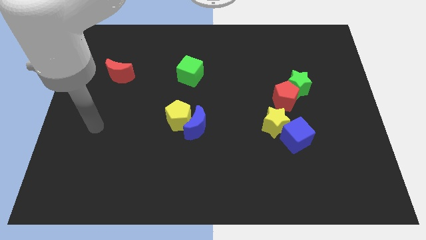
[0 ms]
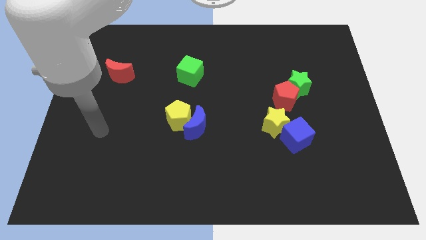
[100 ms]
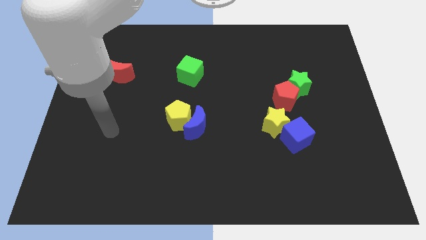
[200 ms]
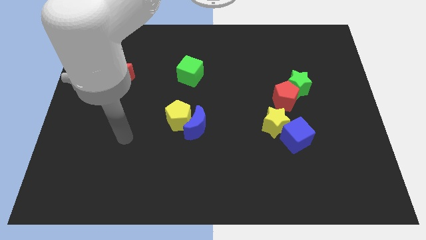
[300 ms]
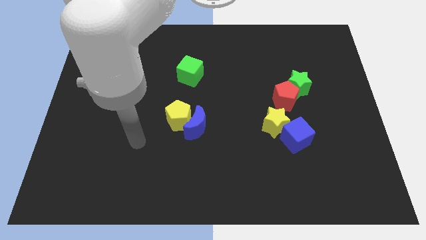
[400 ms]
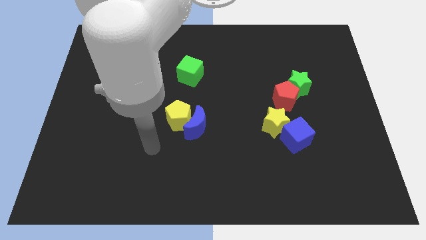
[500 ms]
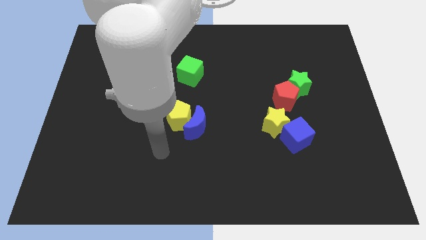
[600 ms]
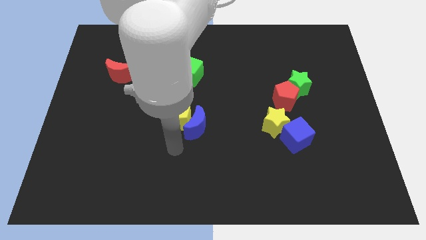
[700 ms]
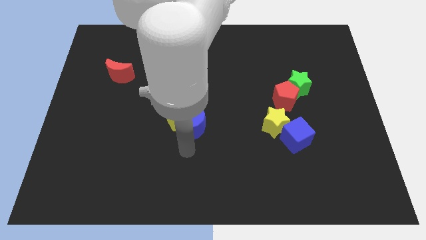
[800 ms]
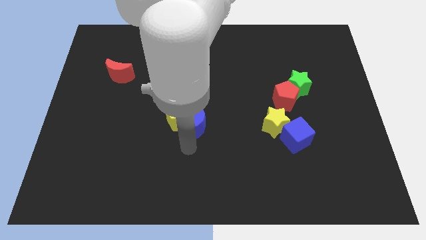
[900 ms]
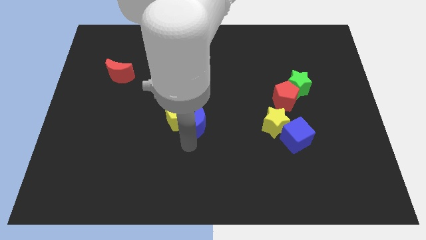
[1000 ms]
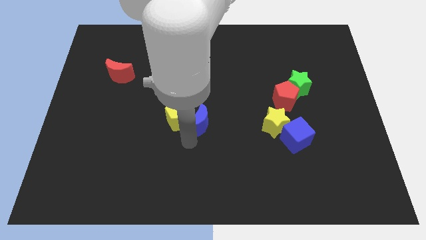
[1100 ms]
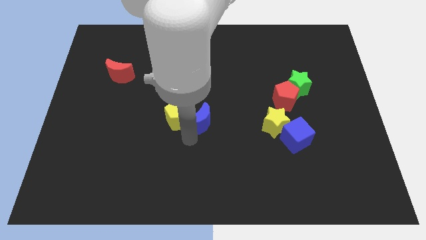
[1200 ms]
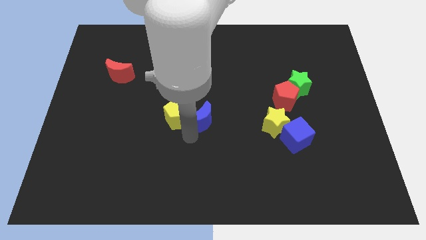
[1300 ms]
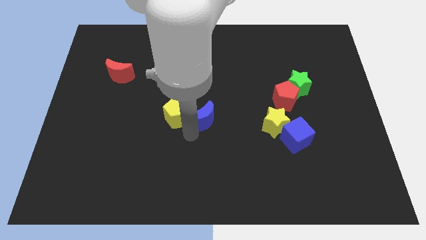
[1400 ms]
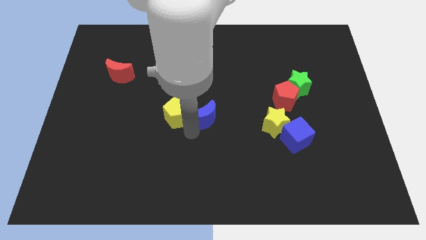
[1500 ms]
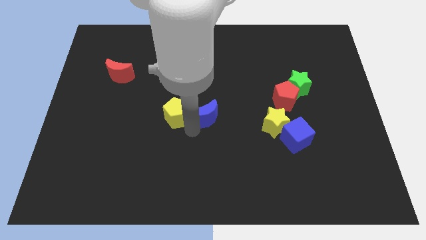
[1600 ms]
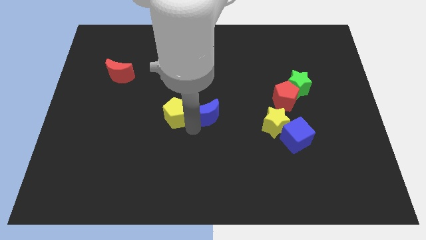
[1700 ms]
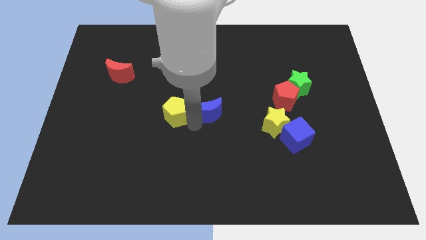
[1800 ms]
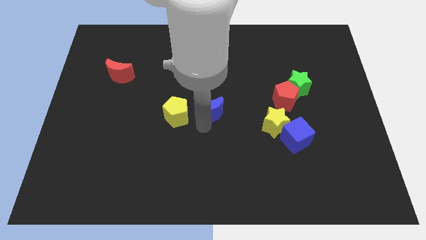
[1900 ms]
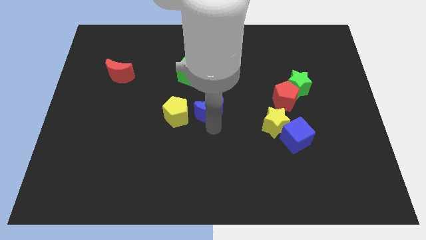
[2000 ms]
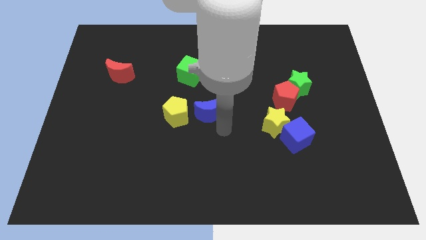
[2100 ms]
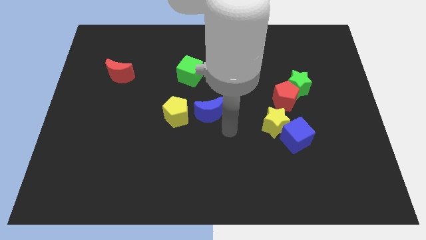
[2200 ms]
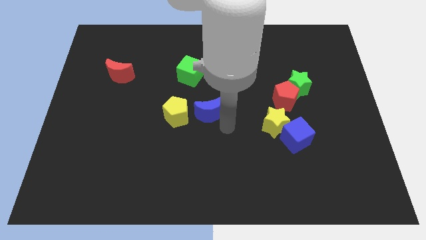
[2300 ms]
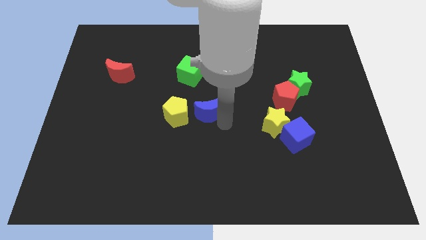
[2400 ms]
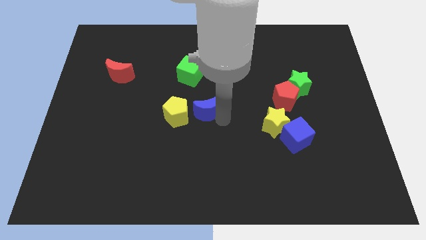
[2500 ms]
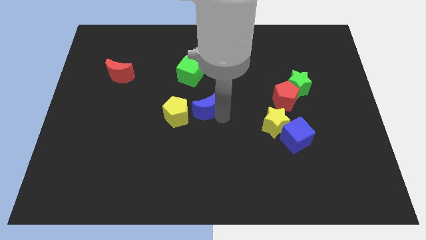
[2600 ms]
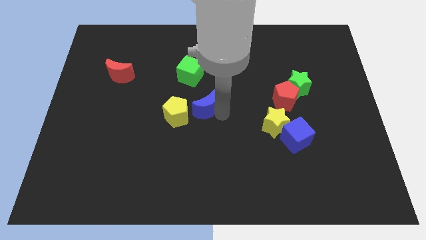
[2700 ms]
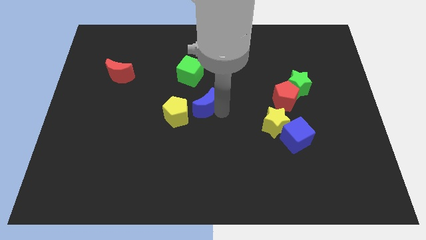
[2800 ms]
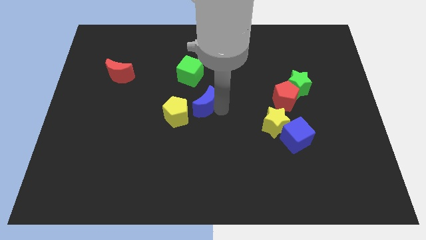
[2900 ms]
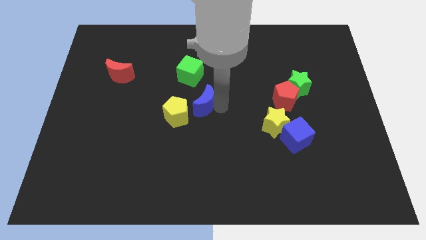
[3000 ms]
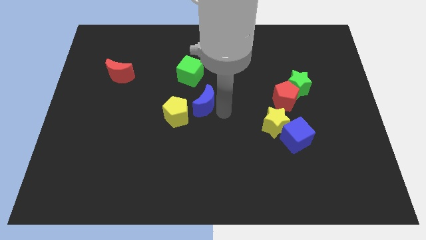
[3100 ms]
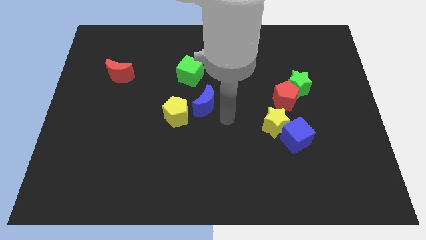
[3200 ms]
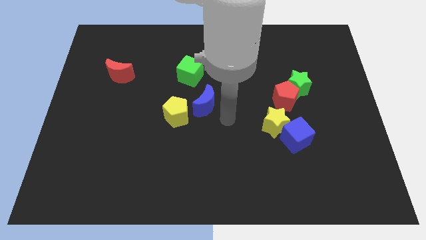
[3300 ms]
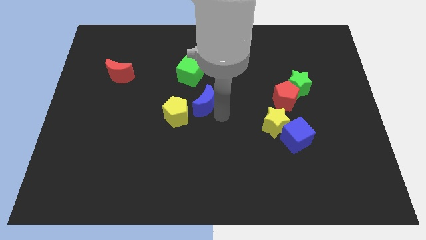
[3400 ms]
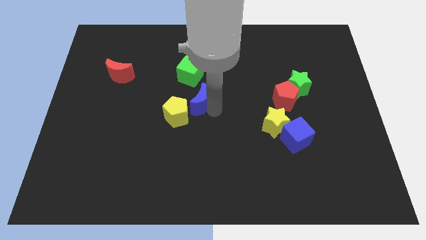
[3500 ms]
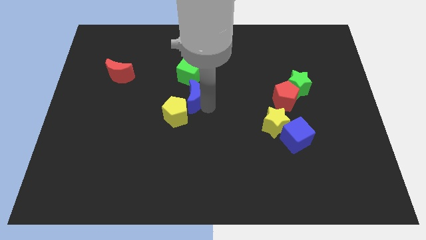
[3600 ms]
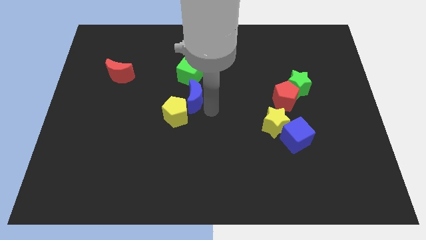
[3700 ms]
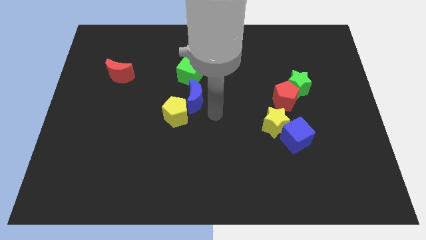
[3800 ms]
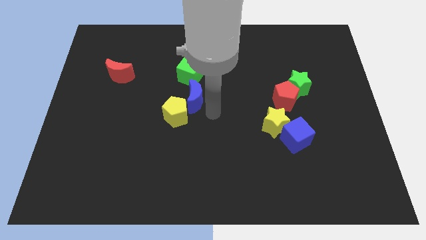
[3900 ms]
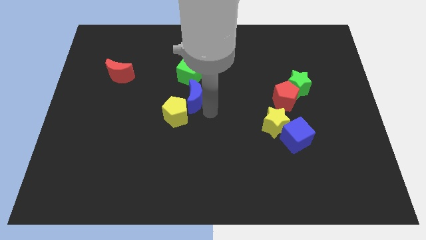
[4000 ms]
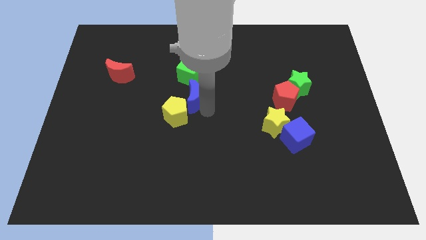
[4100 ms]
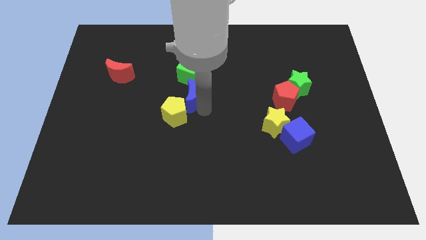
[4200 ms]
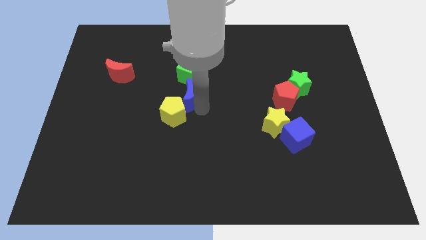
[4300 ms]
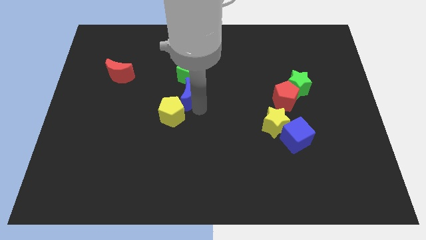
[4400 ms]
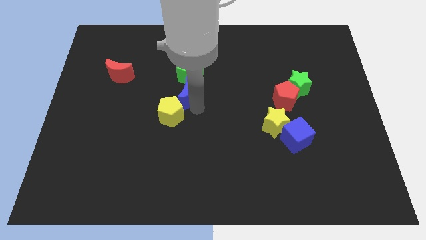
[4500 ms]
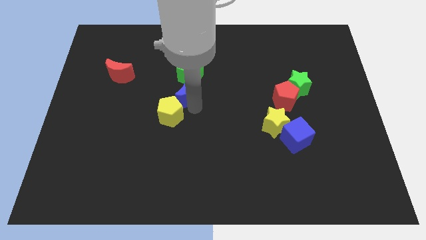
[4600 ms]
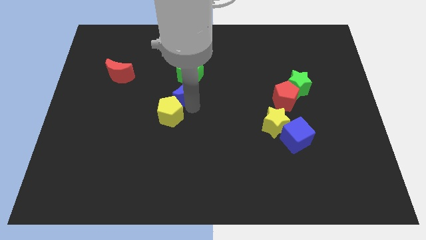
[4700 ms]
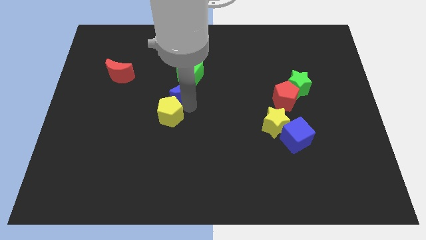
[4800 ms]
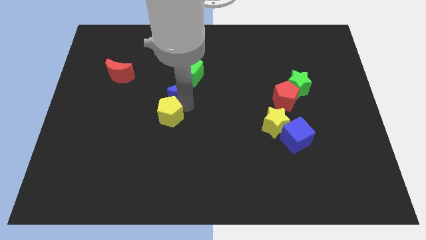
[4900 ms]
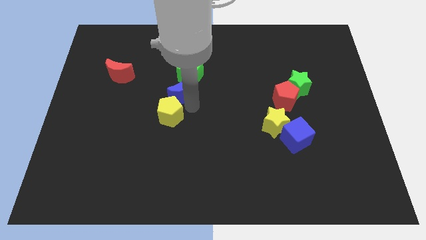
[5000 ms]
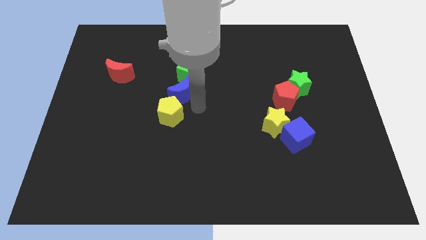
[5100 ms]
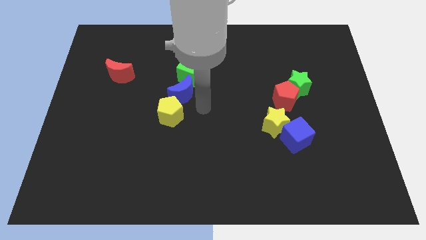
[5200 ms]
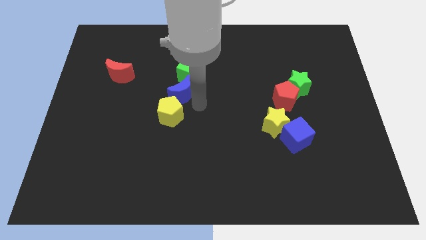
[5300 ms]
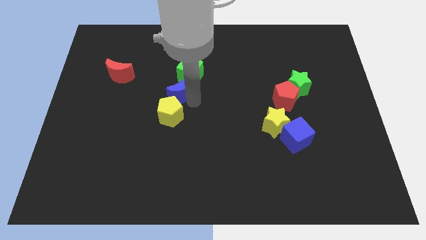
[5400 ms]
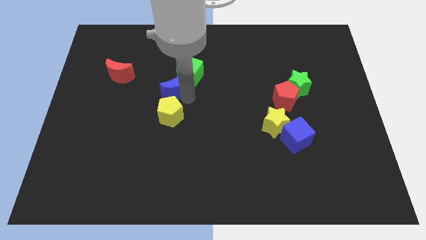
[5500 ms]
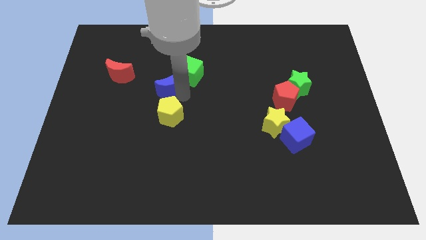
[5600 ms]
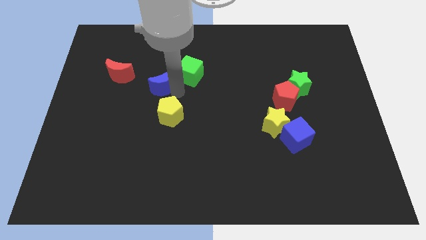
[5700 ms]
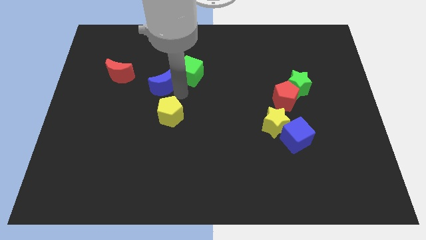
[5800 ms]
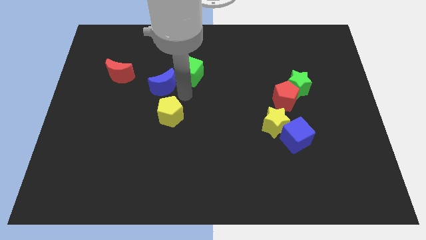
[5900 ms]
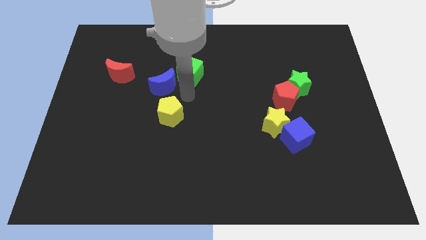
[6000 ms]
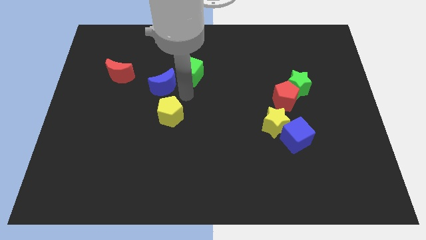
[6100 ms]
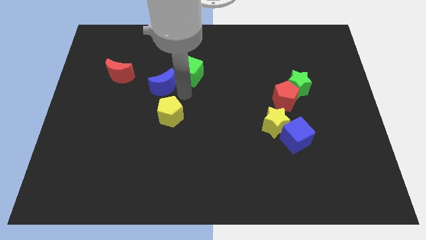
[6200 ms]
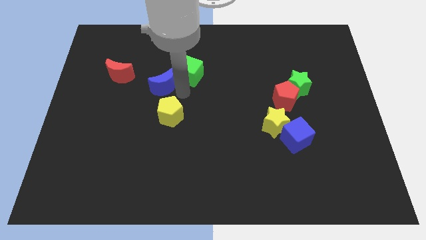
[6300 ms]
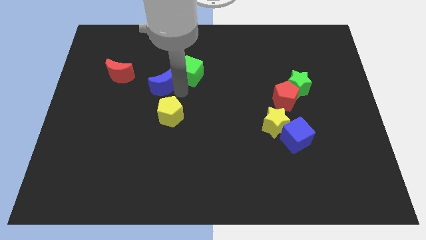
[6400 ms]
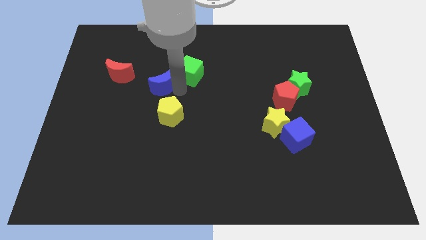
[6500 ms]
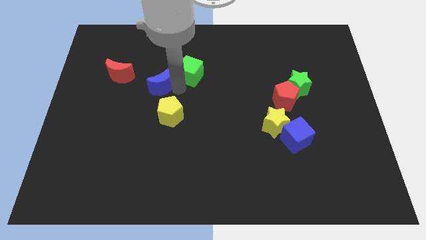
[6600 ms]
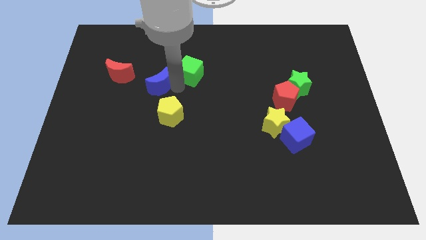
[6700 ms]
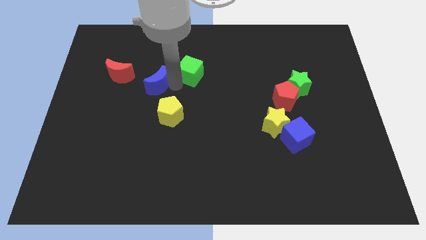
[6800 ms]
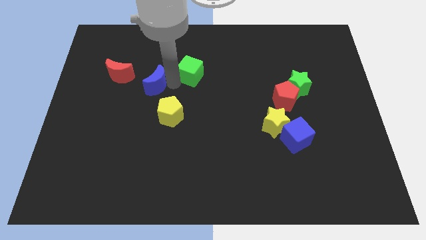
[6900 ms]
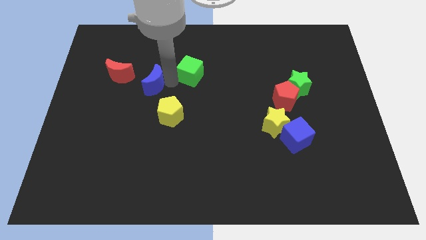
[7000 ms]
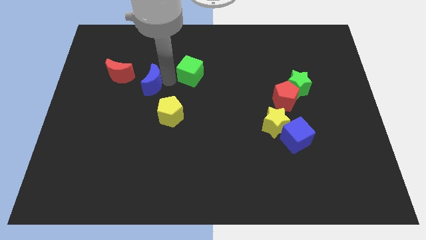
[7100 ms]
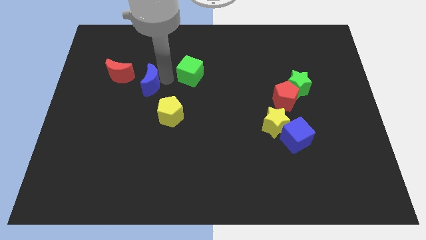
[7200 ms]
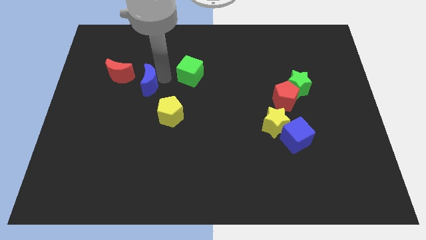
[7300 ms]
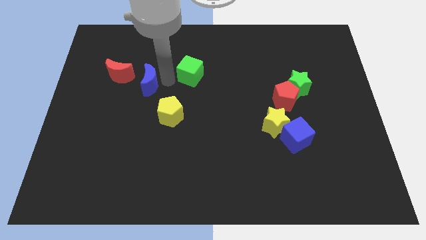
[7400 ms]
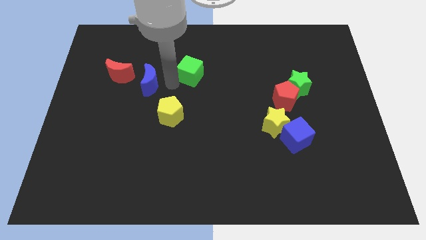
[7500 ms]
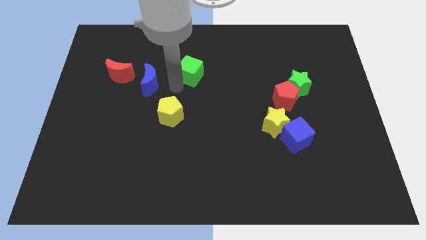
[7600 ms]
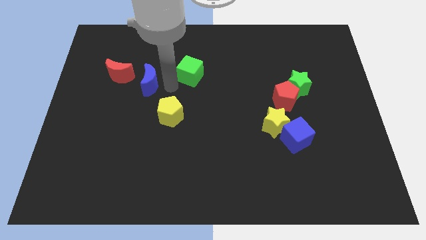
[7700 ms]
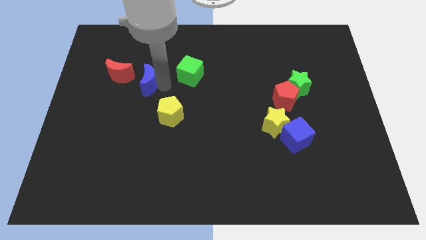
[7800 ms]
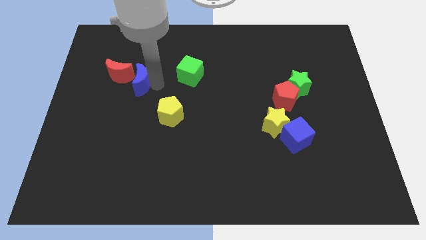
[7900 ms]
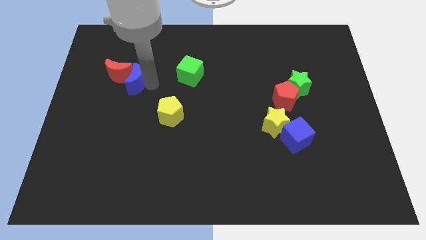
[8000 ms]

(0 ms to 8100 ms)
push the blue moon close to the red moon
